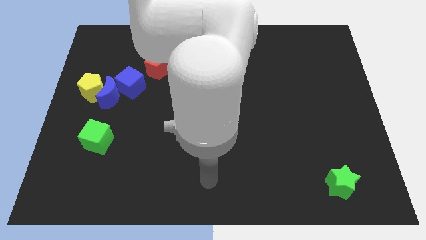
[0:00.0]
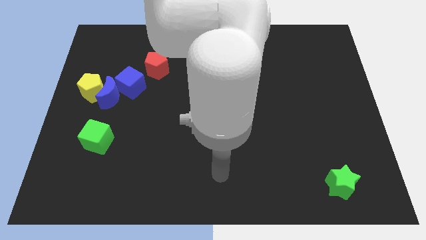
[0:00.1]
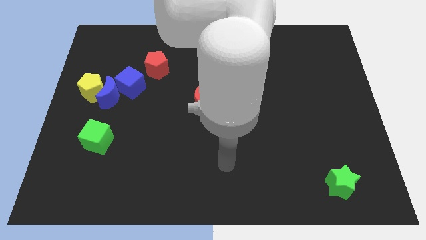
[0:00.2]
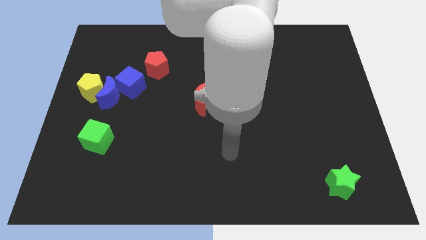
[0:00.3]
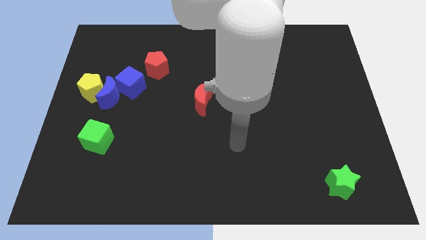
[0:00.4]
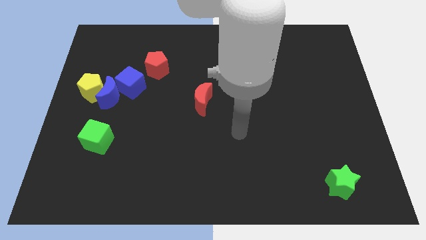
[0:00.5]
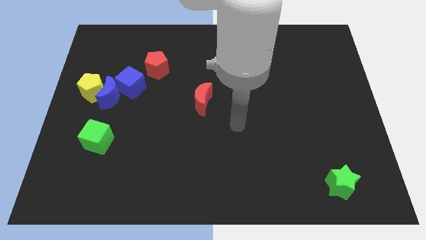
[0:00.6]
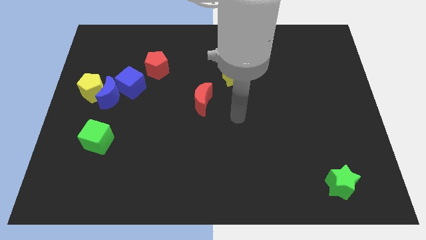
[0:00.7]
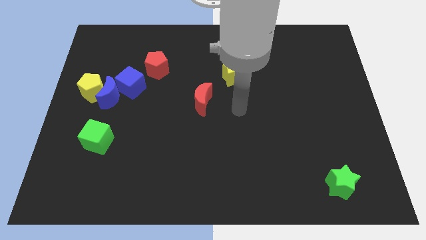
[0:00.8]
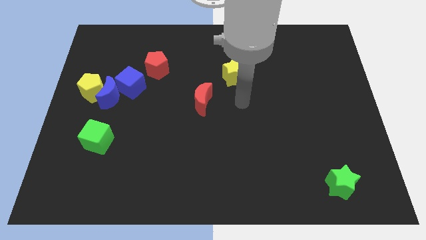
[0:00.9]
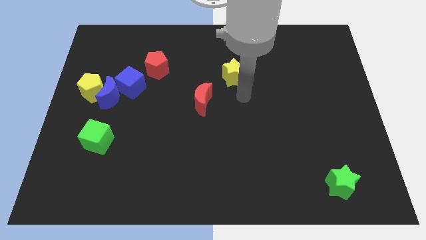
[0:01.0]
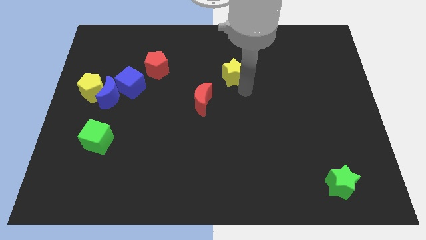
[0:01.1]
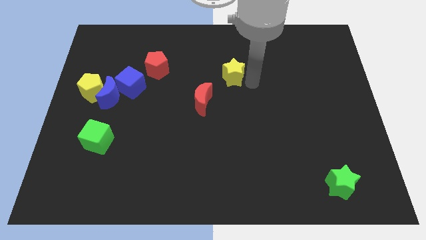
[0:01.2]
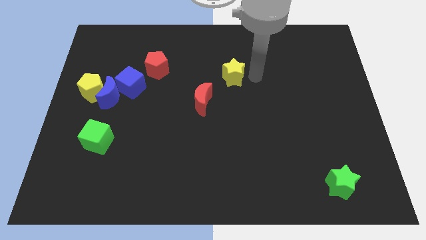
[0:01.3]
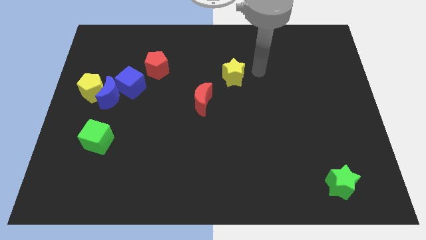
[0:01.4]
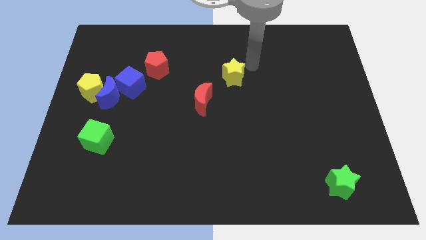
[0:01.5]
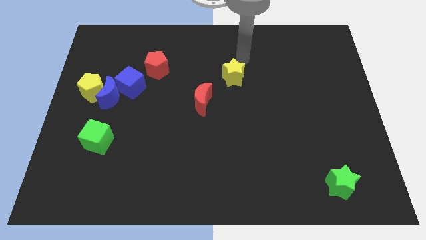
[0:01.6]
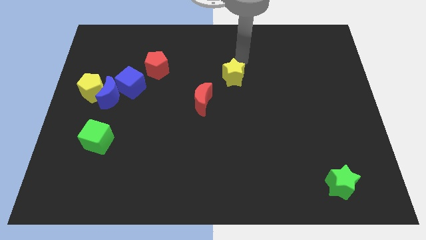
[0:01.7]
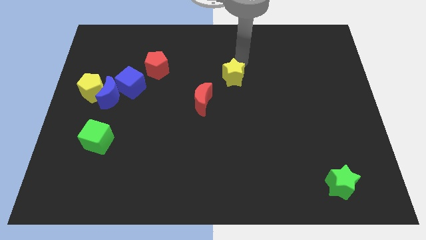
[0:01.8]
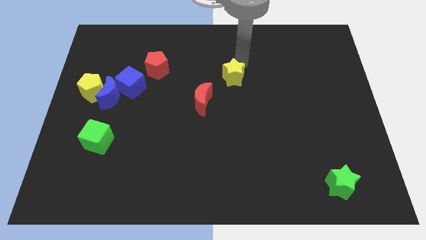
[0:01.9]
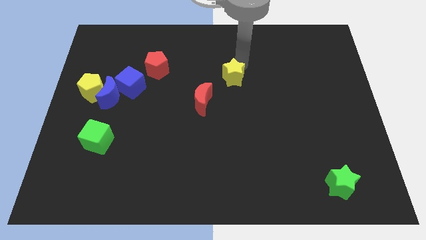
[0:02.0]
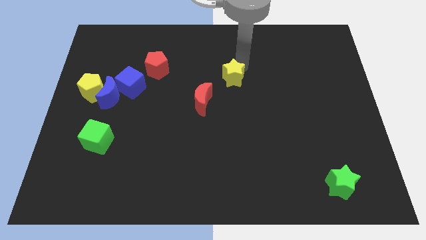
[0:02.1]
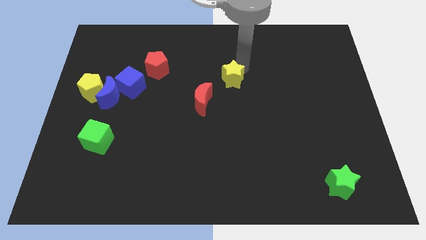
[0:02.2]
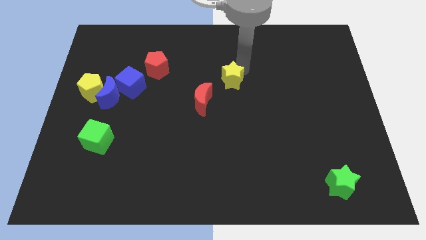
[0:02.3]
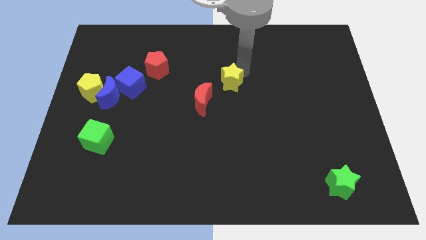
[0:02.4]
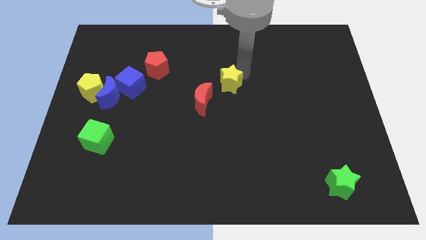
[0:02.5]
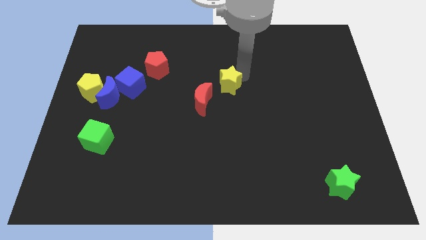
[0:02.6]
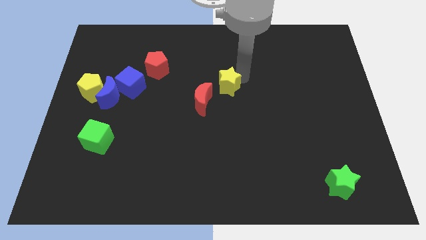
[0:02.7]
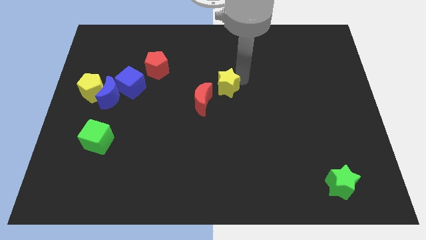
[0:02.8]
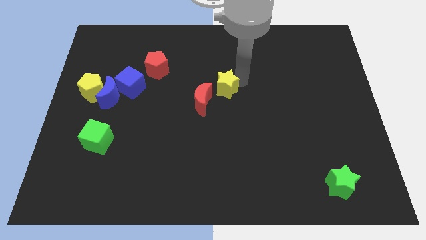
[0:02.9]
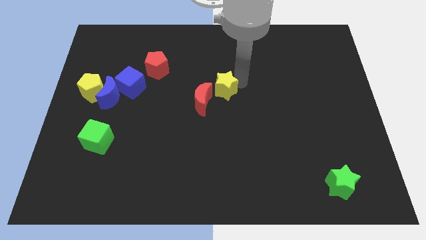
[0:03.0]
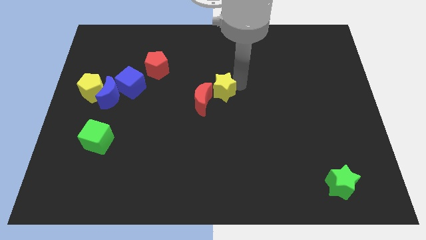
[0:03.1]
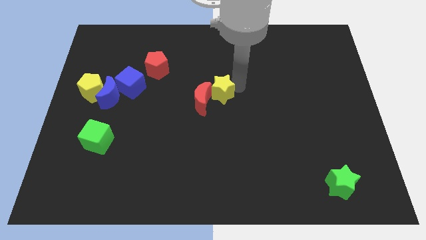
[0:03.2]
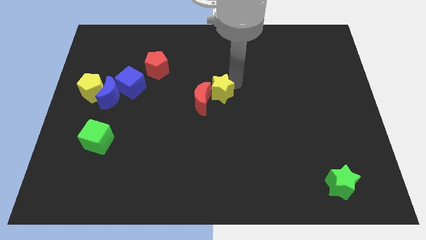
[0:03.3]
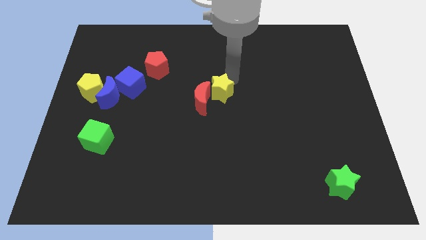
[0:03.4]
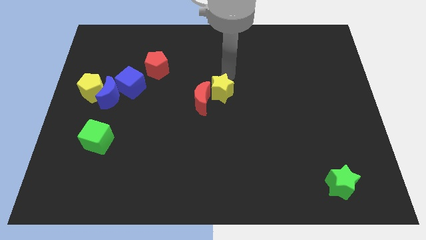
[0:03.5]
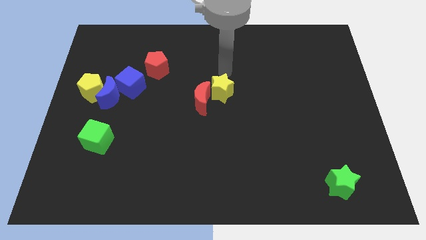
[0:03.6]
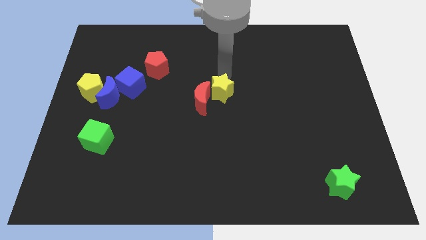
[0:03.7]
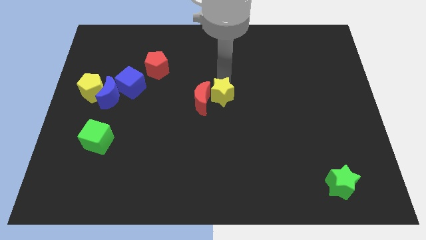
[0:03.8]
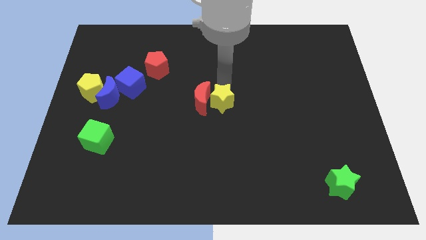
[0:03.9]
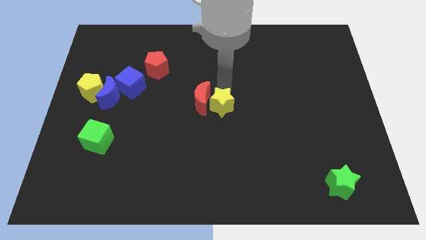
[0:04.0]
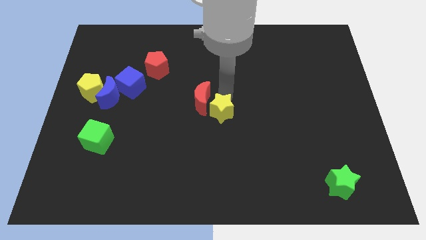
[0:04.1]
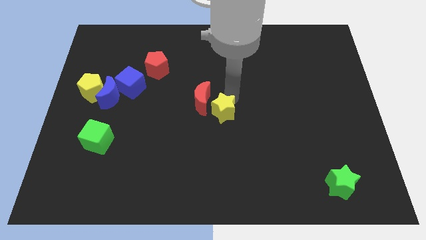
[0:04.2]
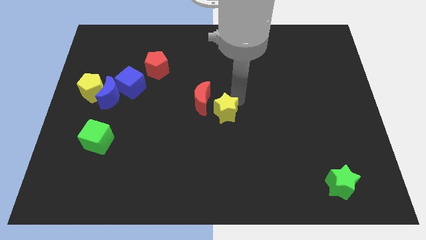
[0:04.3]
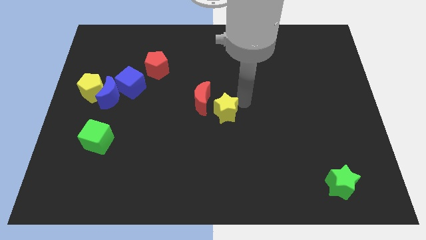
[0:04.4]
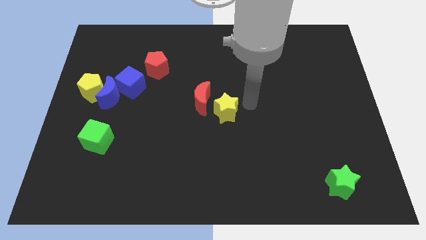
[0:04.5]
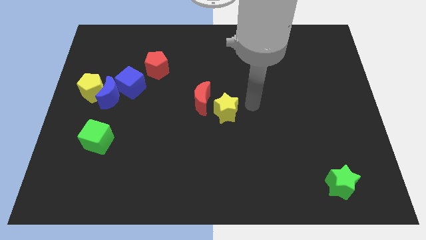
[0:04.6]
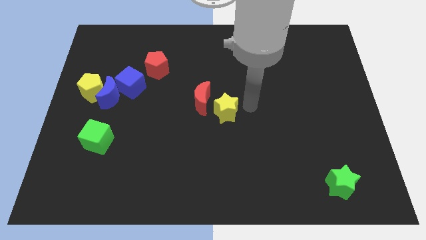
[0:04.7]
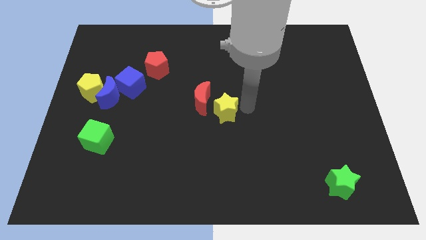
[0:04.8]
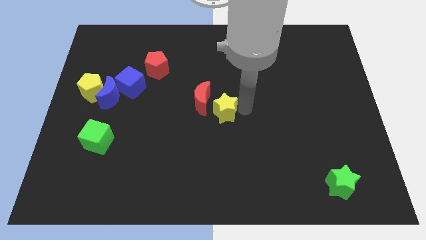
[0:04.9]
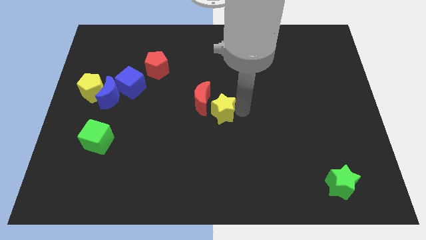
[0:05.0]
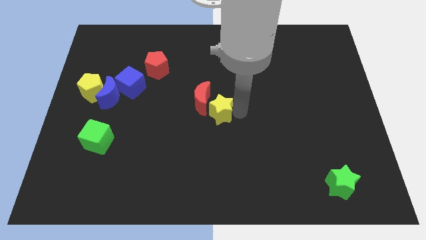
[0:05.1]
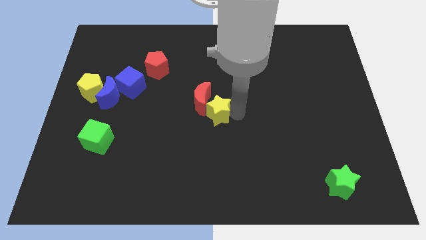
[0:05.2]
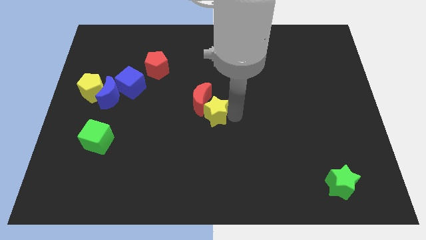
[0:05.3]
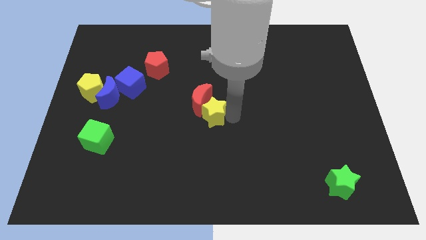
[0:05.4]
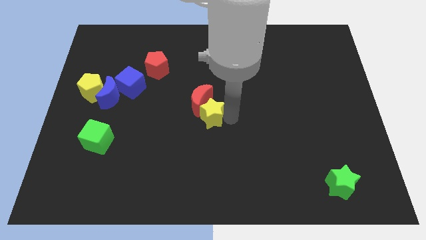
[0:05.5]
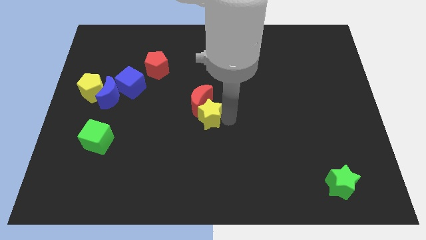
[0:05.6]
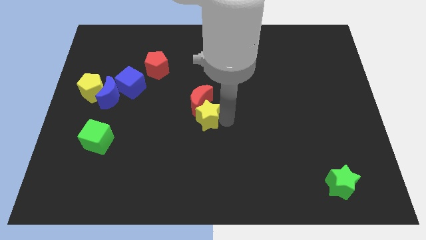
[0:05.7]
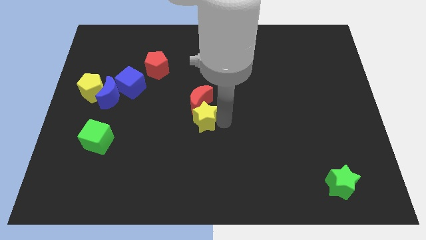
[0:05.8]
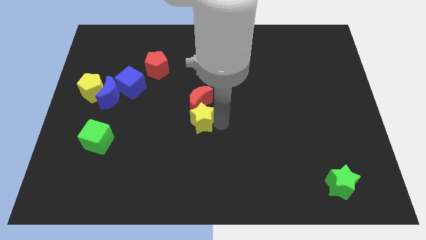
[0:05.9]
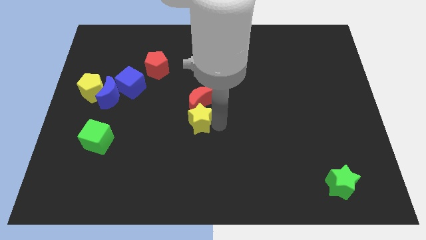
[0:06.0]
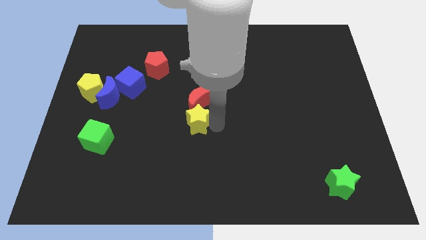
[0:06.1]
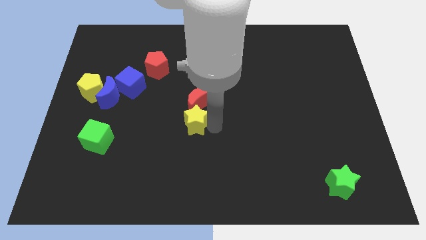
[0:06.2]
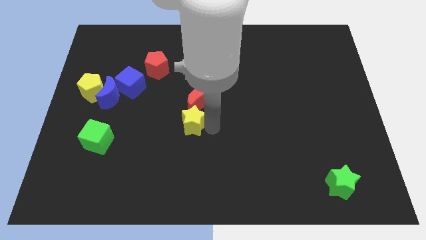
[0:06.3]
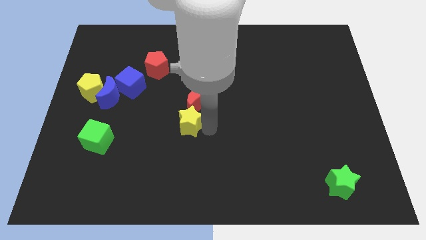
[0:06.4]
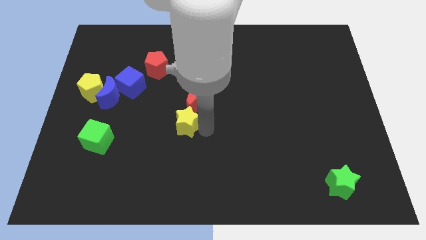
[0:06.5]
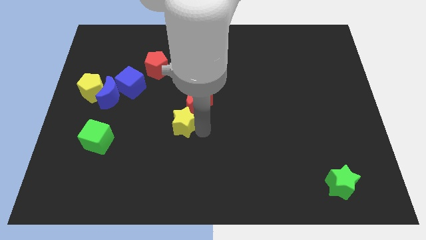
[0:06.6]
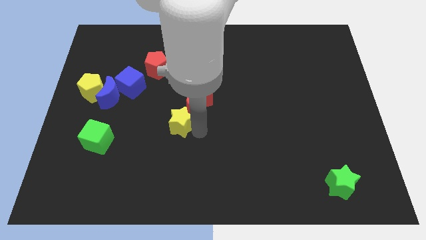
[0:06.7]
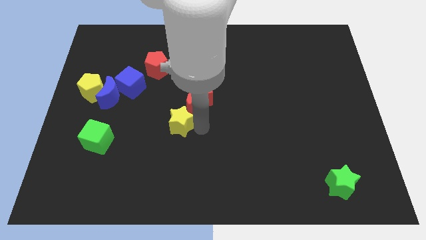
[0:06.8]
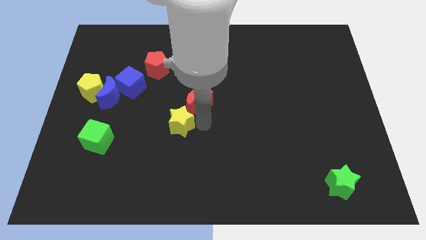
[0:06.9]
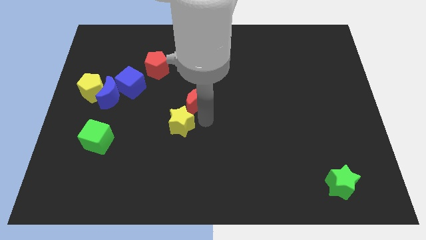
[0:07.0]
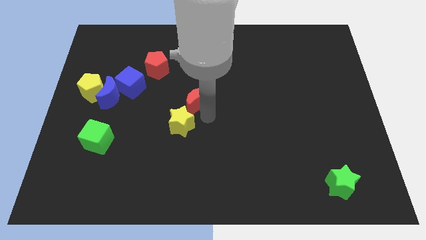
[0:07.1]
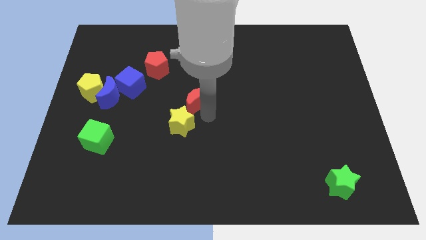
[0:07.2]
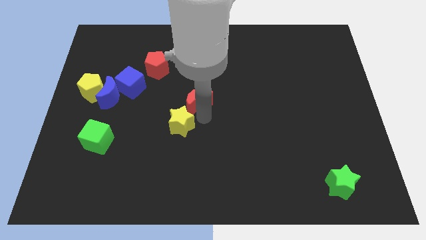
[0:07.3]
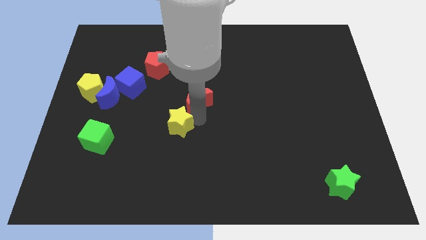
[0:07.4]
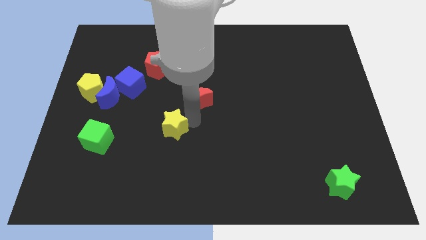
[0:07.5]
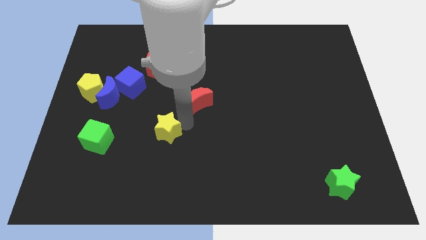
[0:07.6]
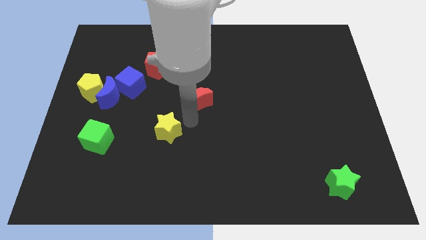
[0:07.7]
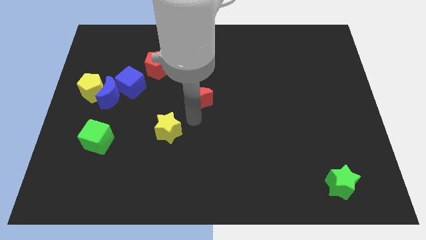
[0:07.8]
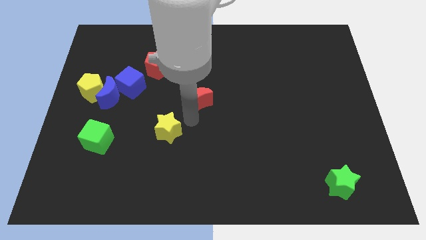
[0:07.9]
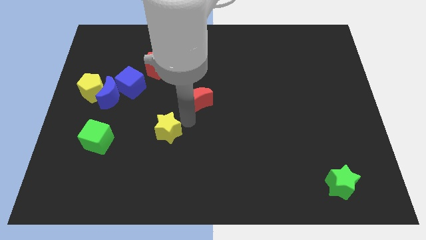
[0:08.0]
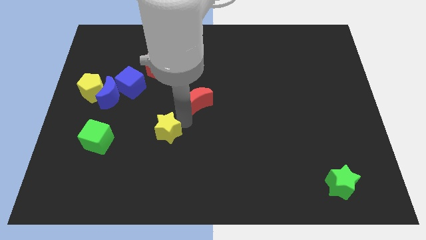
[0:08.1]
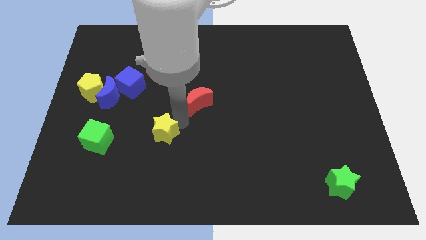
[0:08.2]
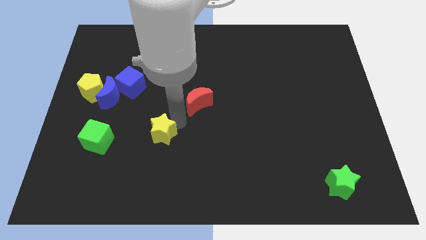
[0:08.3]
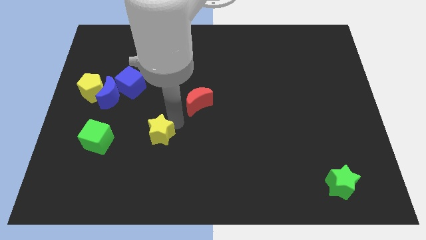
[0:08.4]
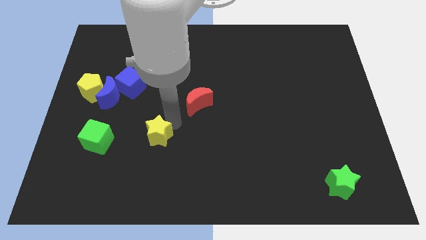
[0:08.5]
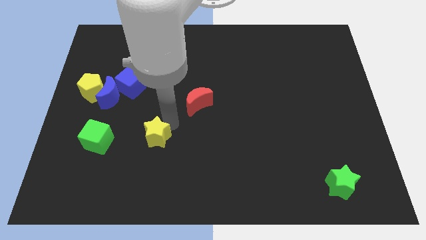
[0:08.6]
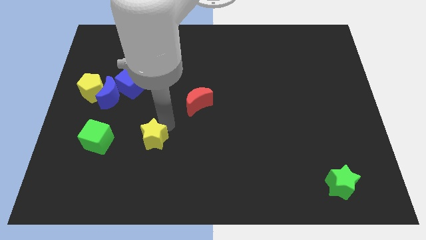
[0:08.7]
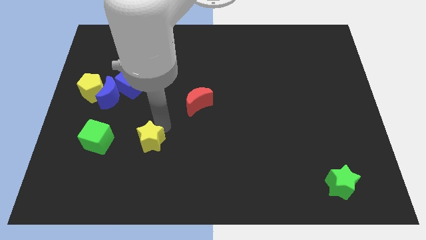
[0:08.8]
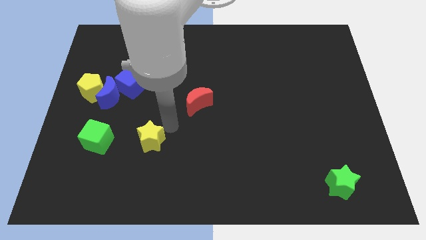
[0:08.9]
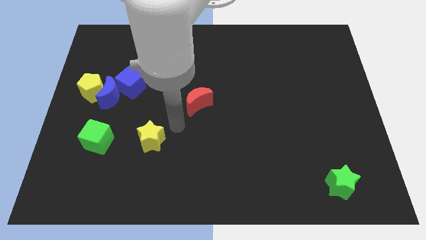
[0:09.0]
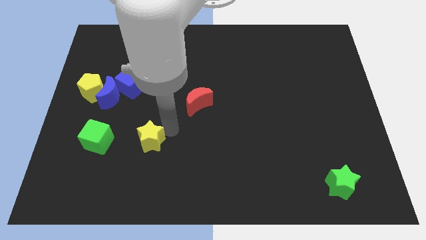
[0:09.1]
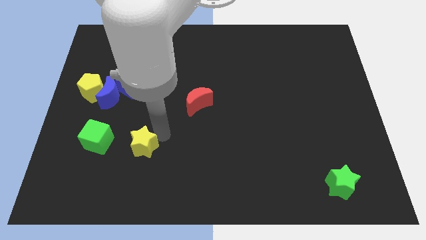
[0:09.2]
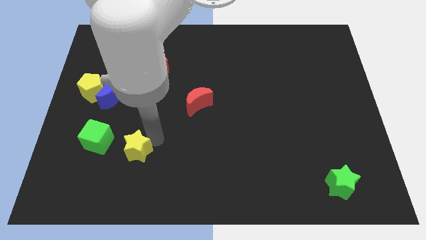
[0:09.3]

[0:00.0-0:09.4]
put the yellow star diagonally down and to the right of the green cube
